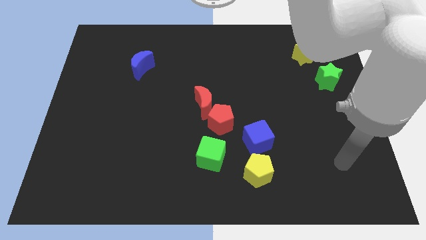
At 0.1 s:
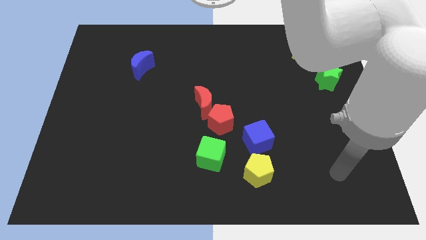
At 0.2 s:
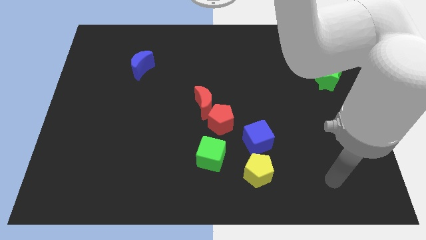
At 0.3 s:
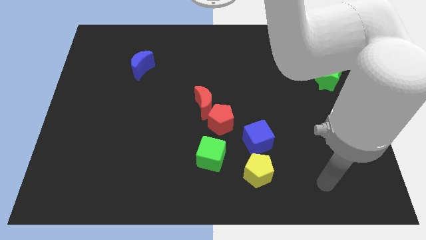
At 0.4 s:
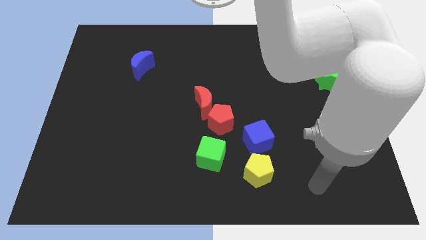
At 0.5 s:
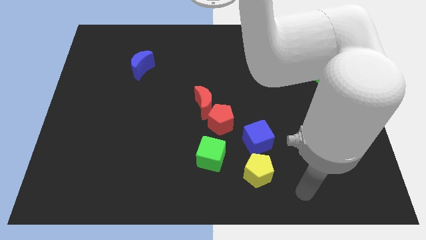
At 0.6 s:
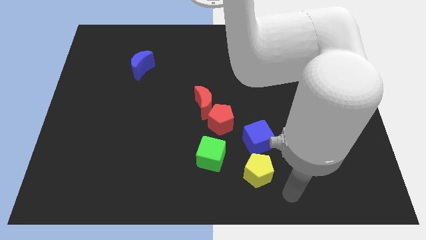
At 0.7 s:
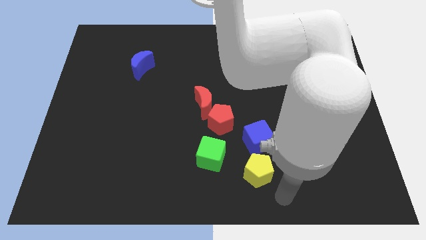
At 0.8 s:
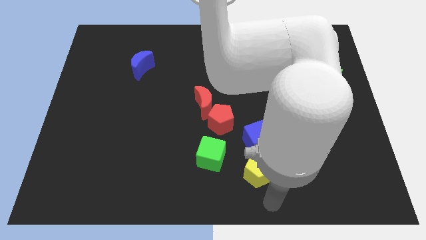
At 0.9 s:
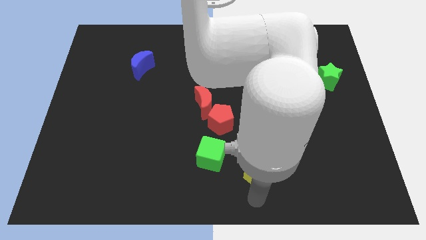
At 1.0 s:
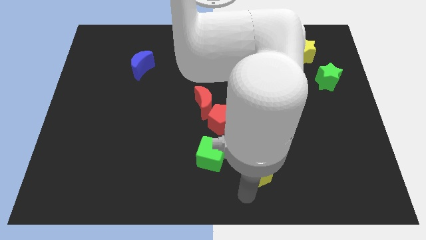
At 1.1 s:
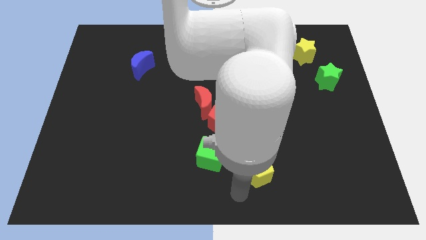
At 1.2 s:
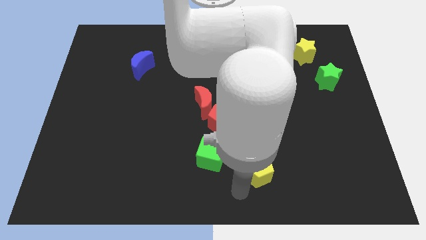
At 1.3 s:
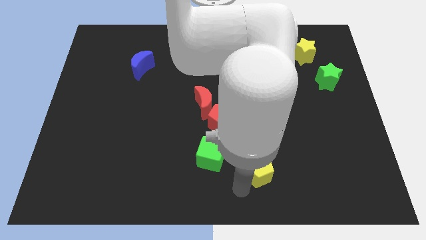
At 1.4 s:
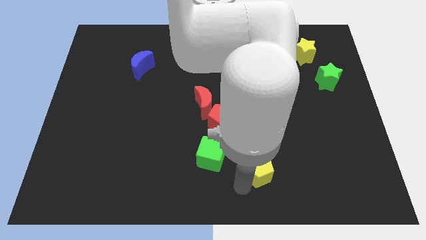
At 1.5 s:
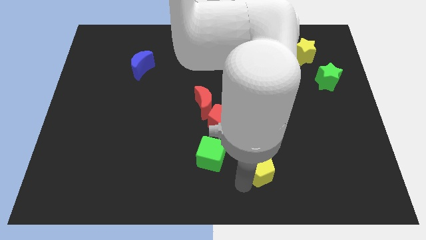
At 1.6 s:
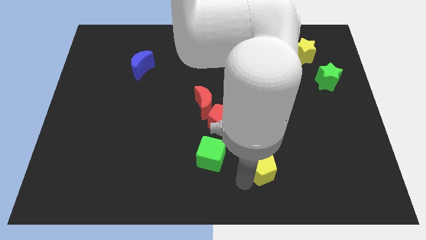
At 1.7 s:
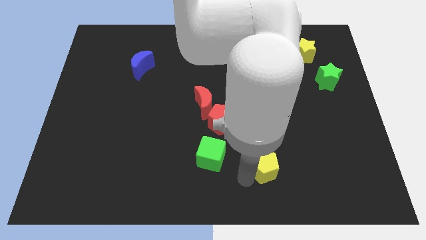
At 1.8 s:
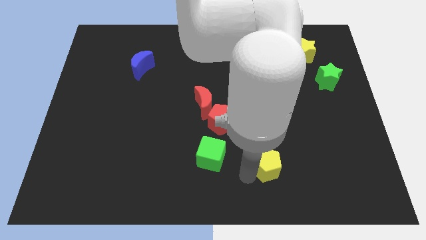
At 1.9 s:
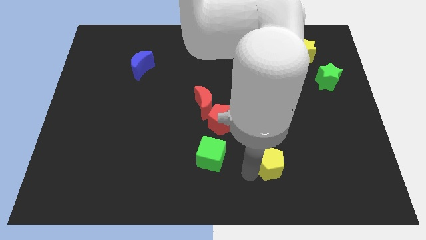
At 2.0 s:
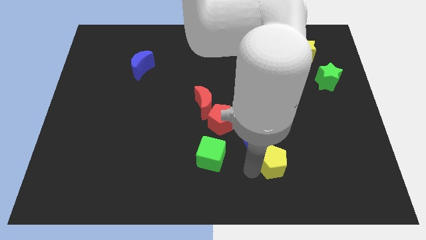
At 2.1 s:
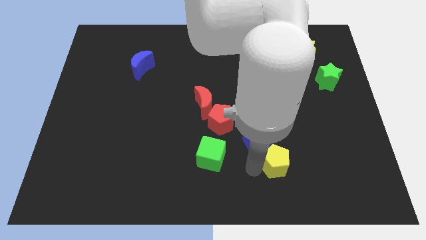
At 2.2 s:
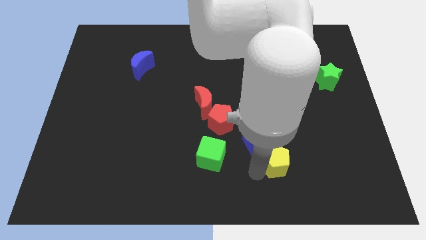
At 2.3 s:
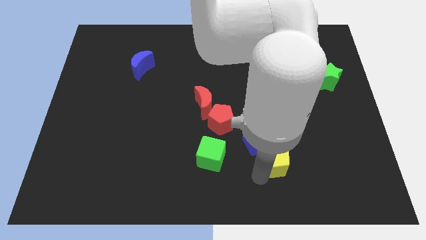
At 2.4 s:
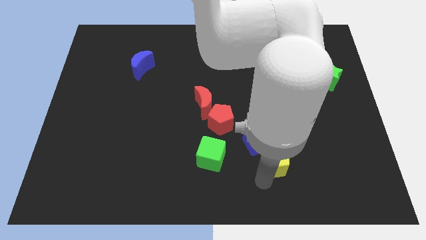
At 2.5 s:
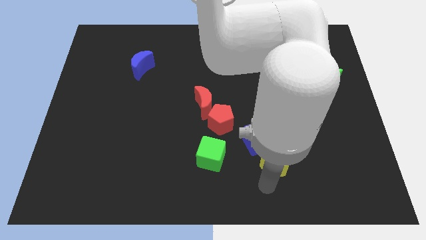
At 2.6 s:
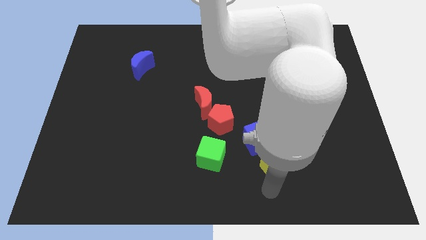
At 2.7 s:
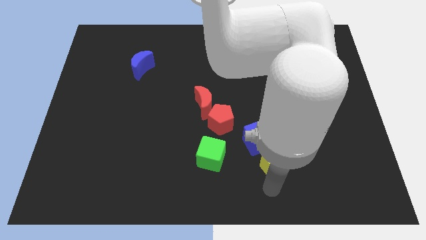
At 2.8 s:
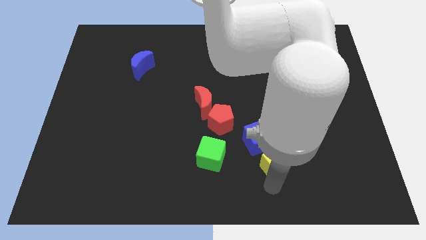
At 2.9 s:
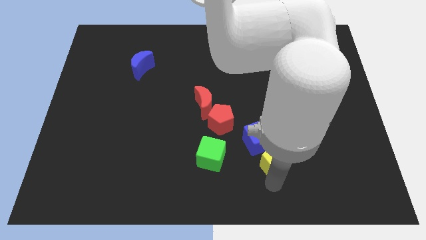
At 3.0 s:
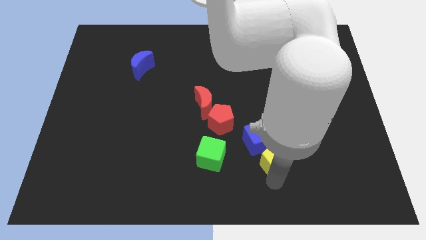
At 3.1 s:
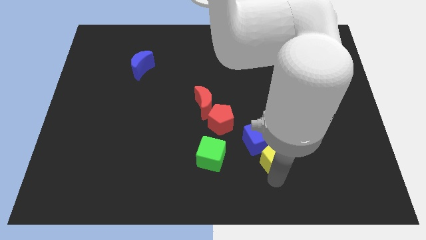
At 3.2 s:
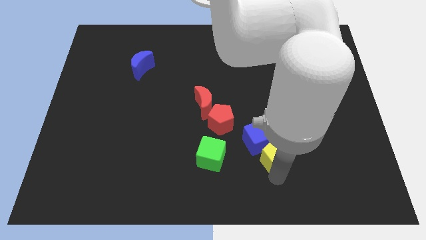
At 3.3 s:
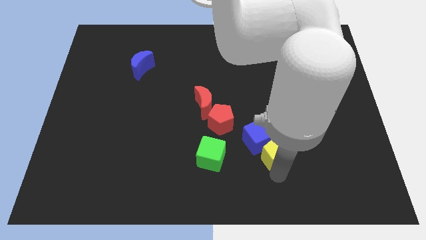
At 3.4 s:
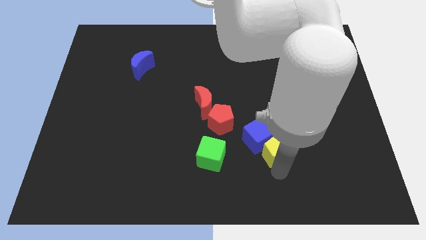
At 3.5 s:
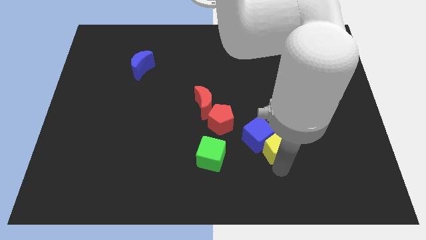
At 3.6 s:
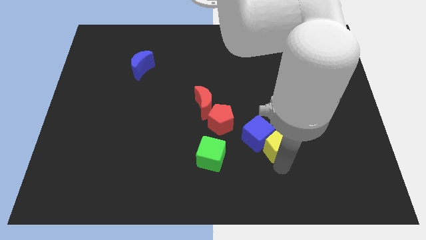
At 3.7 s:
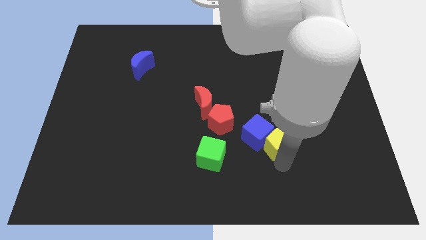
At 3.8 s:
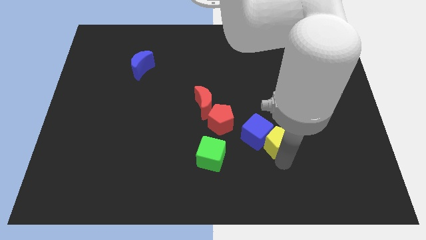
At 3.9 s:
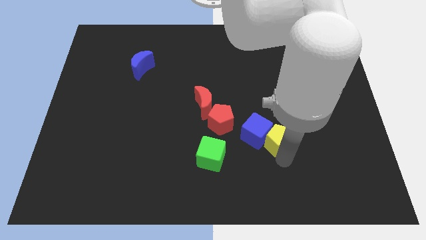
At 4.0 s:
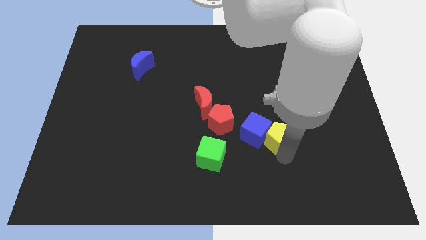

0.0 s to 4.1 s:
move the yellow pentagon slightly upwards

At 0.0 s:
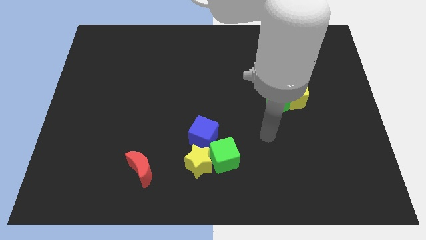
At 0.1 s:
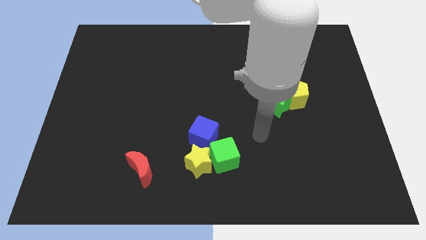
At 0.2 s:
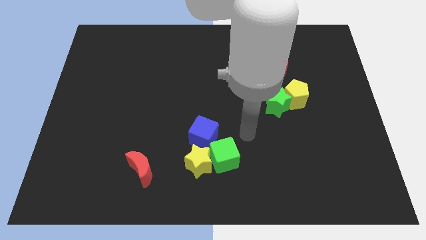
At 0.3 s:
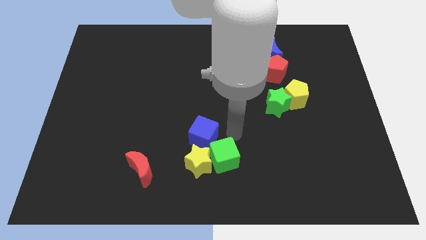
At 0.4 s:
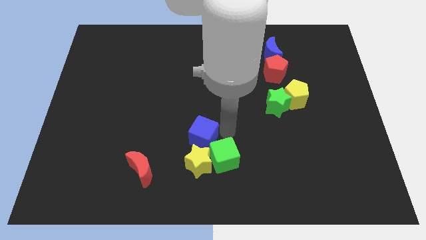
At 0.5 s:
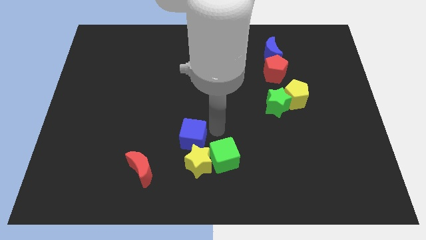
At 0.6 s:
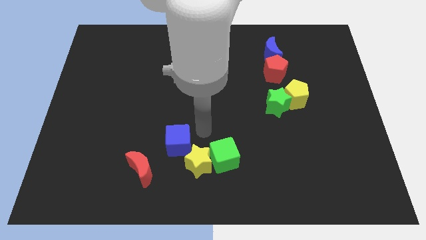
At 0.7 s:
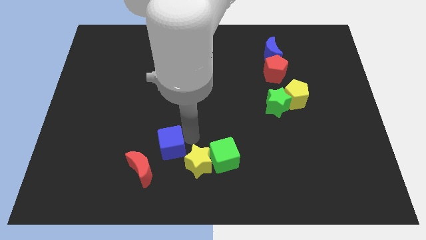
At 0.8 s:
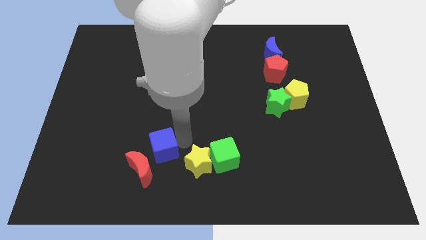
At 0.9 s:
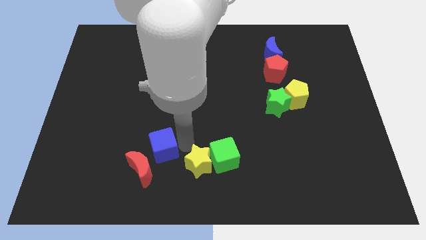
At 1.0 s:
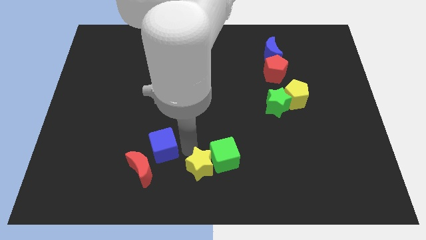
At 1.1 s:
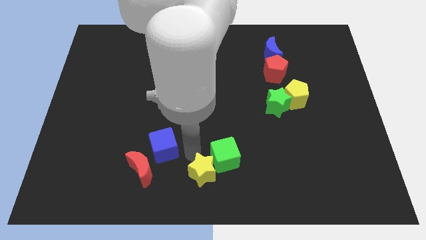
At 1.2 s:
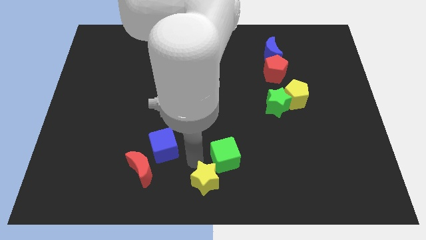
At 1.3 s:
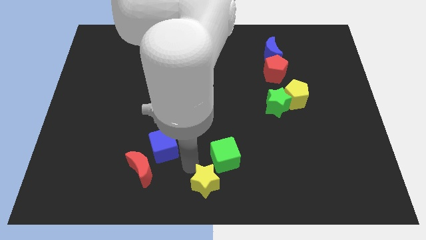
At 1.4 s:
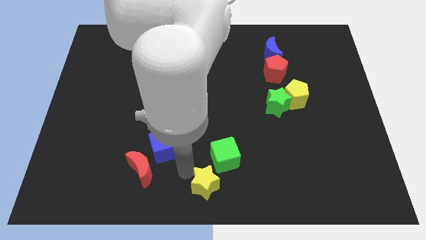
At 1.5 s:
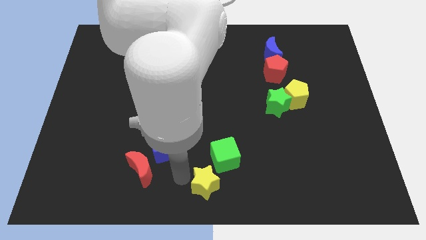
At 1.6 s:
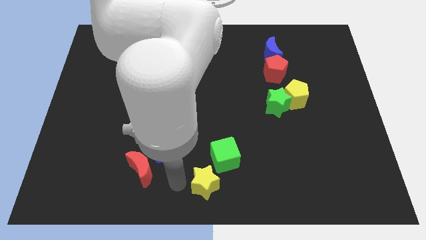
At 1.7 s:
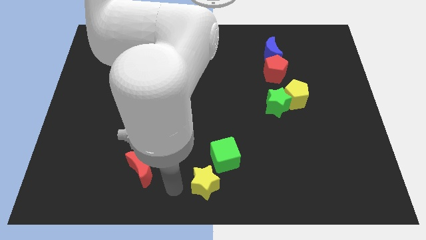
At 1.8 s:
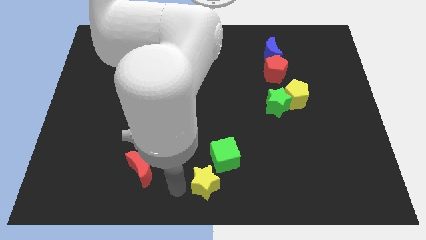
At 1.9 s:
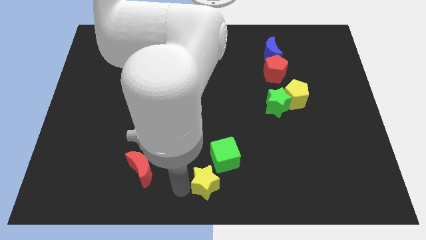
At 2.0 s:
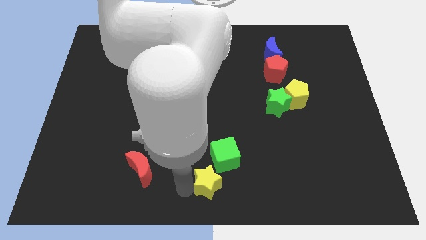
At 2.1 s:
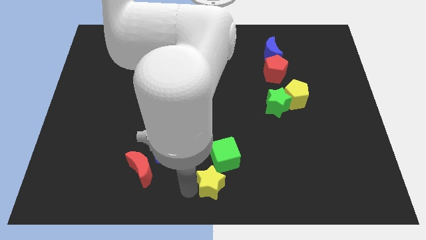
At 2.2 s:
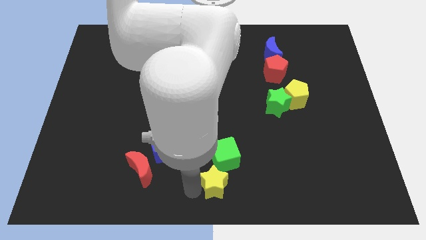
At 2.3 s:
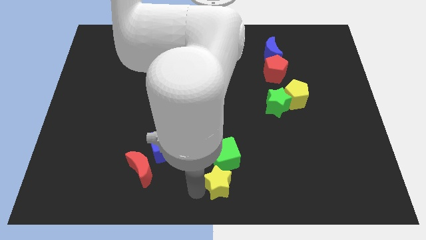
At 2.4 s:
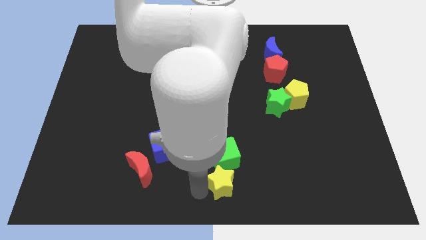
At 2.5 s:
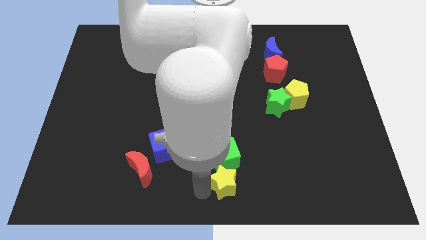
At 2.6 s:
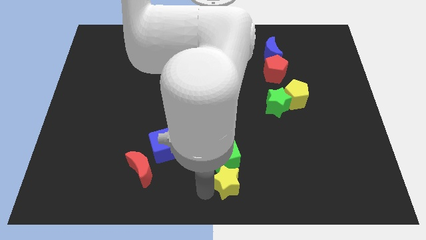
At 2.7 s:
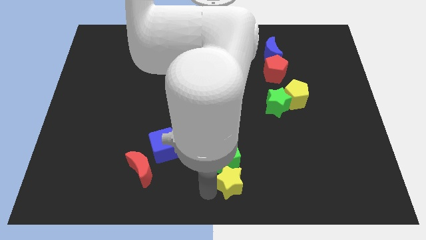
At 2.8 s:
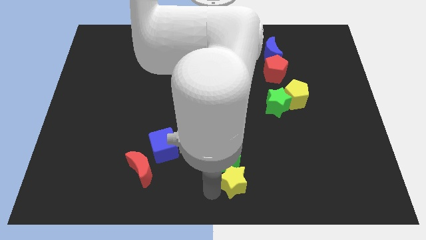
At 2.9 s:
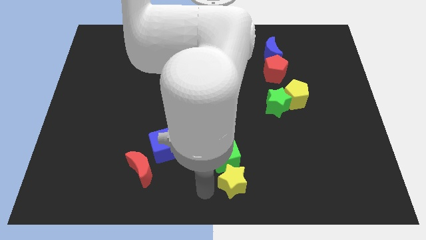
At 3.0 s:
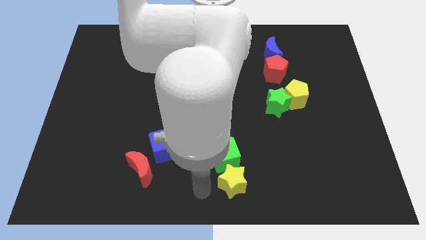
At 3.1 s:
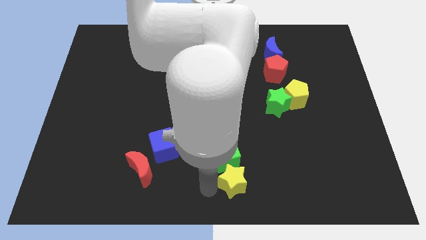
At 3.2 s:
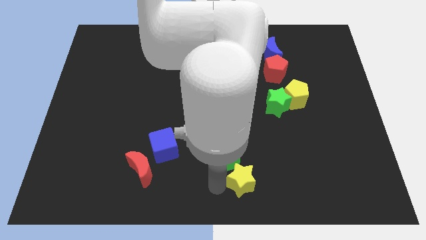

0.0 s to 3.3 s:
slightly move the yellow star to the right

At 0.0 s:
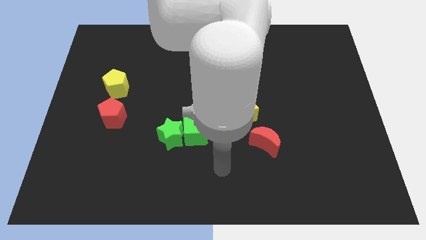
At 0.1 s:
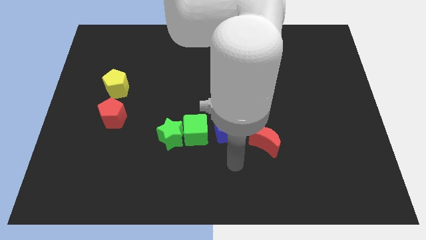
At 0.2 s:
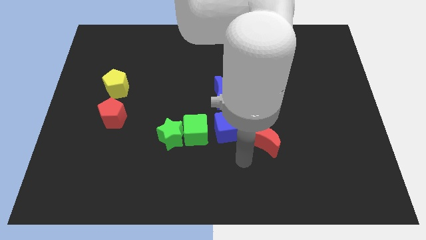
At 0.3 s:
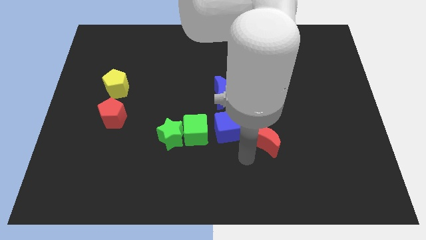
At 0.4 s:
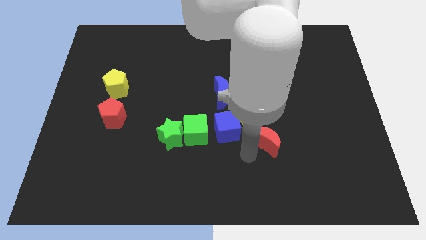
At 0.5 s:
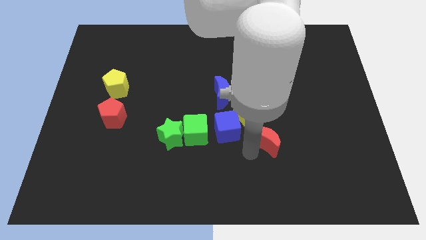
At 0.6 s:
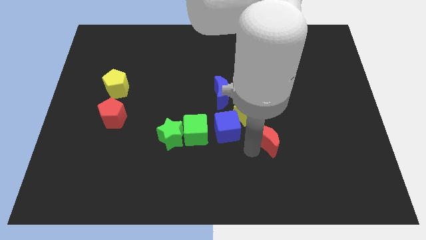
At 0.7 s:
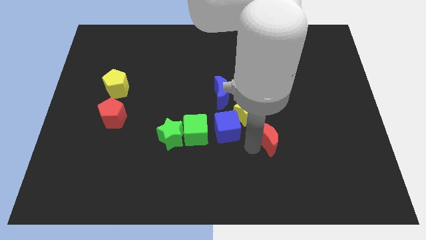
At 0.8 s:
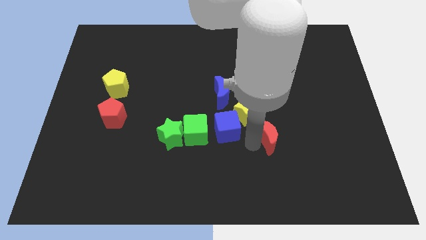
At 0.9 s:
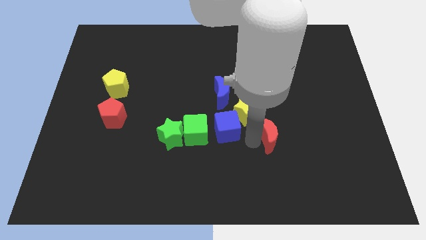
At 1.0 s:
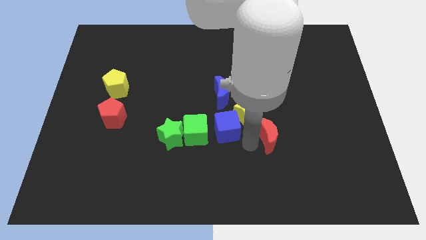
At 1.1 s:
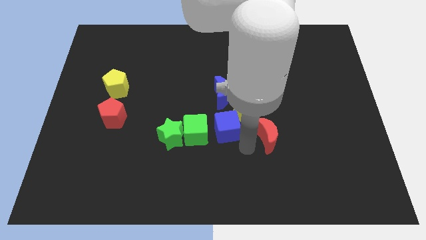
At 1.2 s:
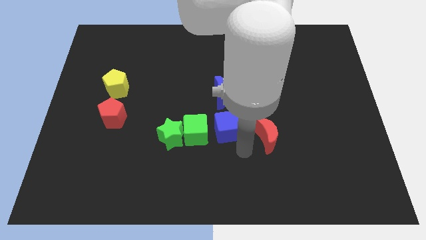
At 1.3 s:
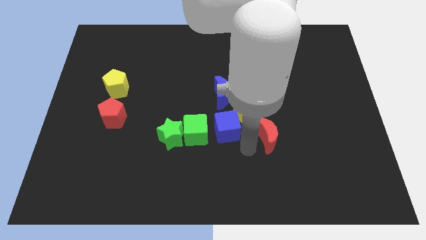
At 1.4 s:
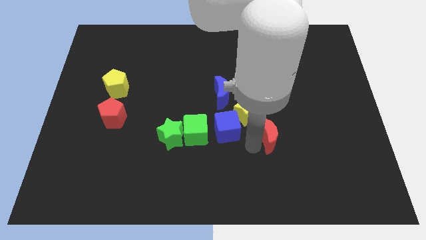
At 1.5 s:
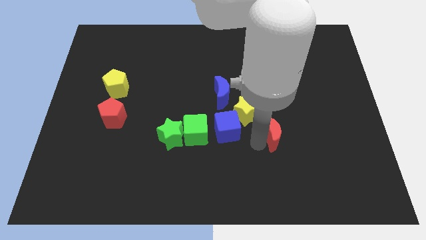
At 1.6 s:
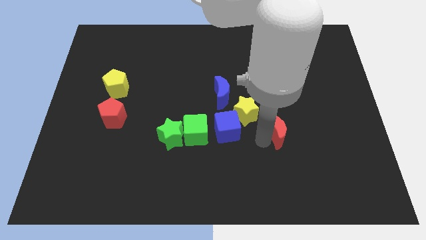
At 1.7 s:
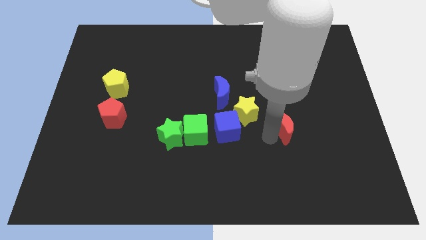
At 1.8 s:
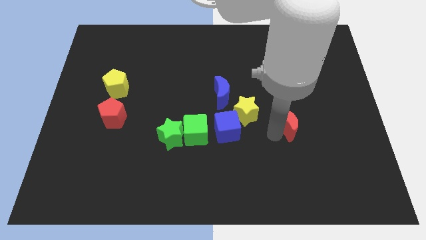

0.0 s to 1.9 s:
slightly push the red moon diagonally up and right
